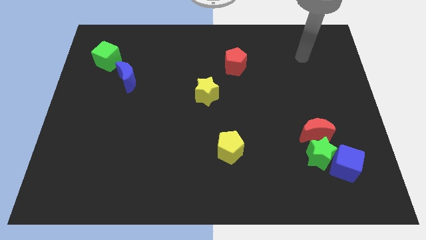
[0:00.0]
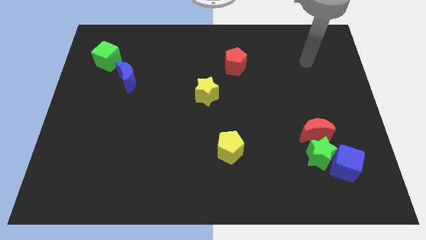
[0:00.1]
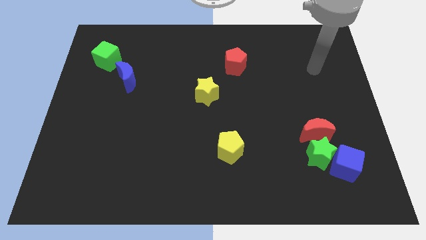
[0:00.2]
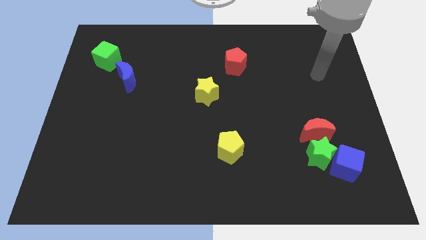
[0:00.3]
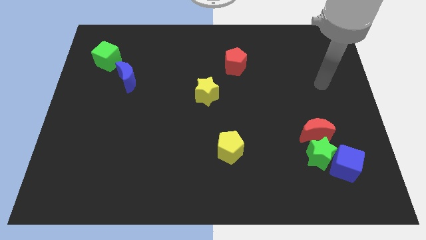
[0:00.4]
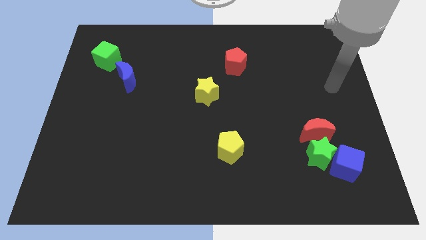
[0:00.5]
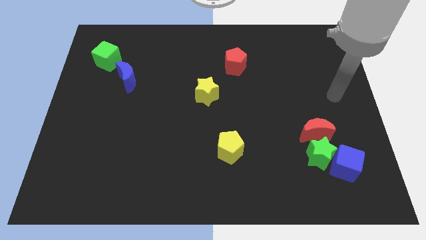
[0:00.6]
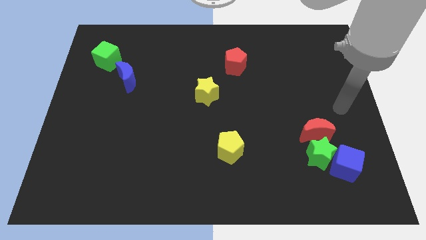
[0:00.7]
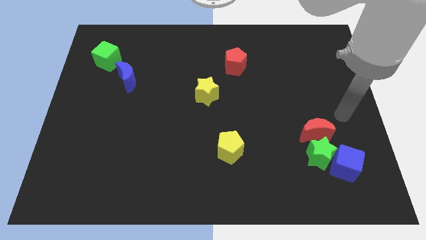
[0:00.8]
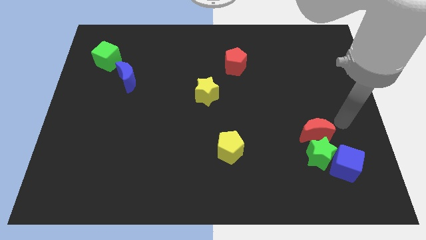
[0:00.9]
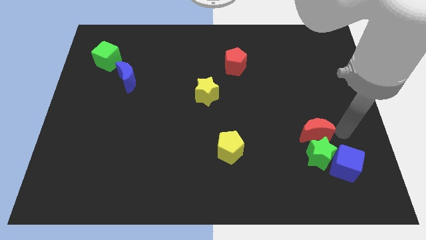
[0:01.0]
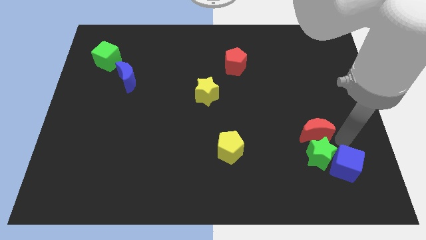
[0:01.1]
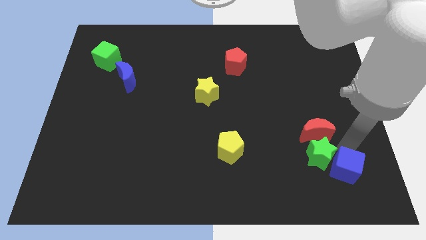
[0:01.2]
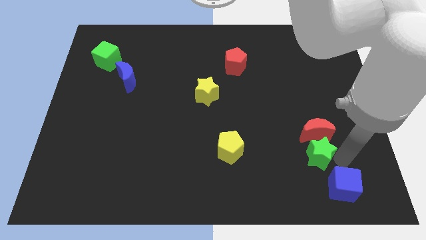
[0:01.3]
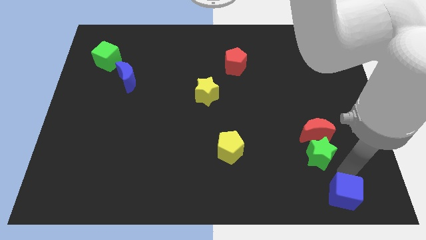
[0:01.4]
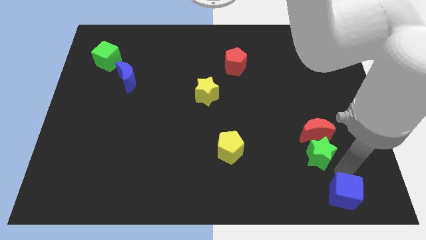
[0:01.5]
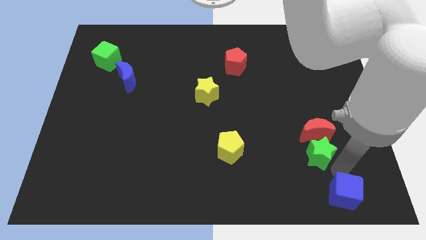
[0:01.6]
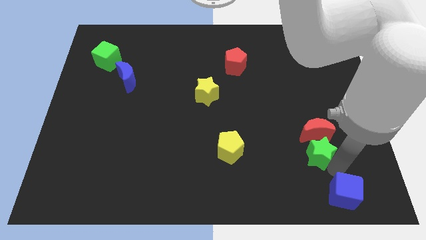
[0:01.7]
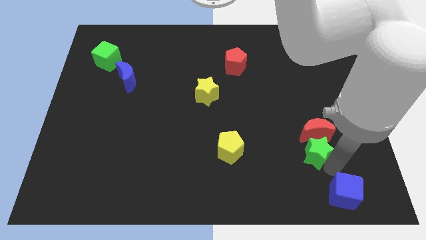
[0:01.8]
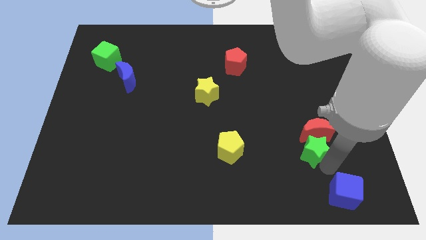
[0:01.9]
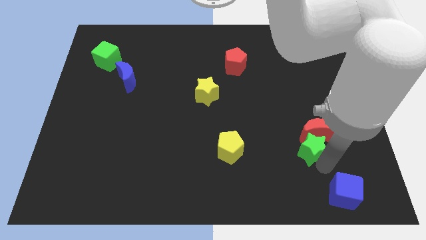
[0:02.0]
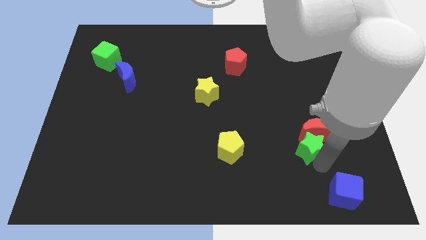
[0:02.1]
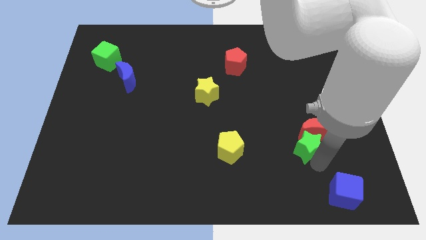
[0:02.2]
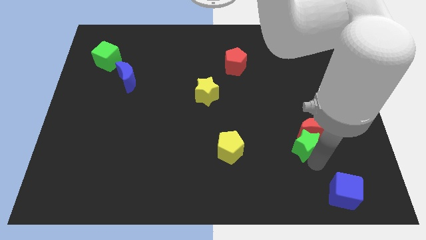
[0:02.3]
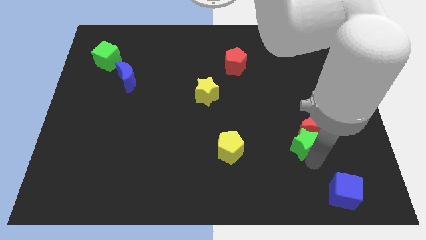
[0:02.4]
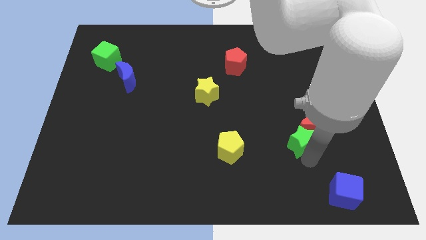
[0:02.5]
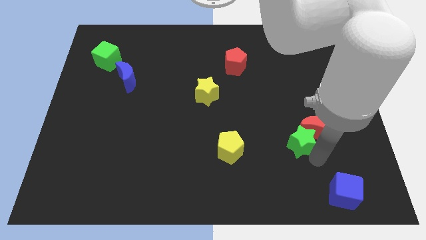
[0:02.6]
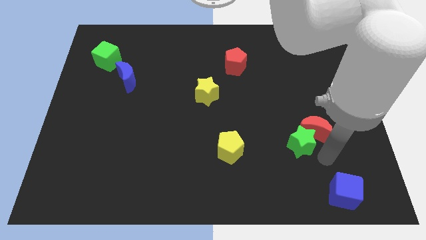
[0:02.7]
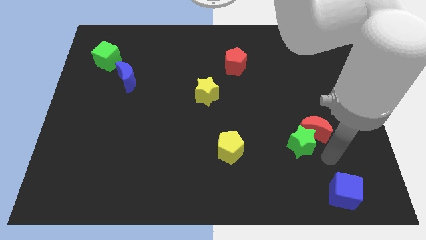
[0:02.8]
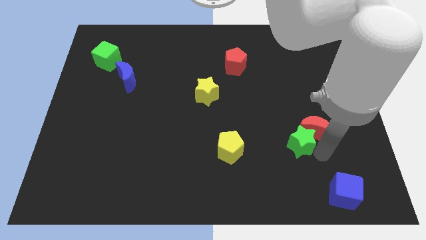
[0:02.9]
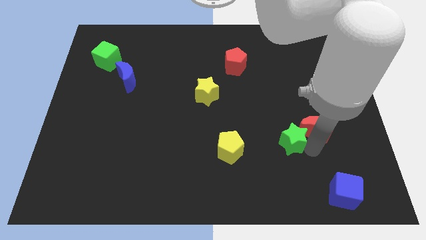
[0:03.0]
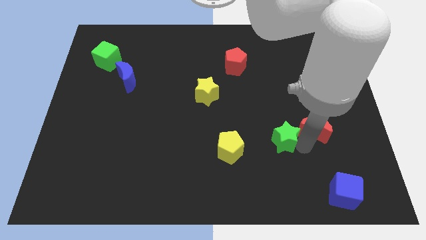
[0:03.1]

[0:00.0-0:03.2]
push the green star a bit up and left diagonally

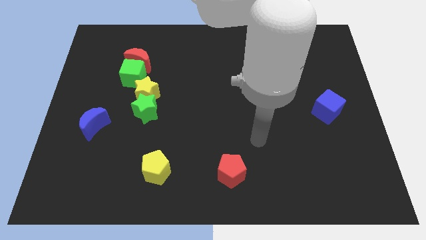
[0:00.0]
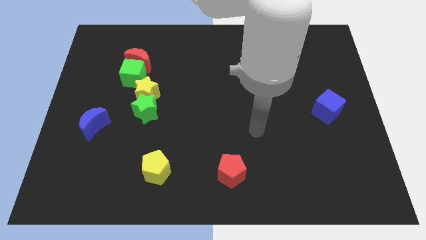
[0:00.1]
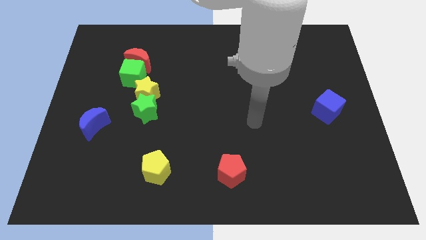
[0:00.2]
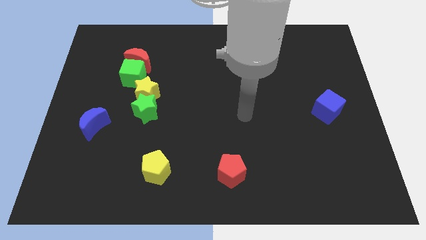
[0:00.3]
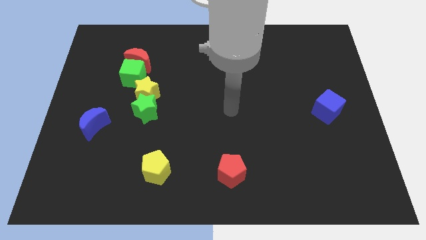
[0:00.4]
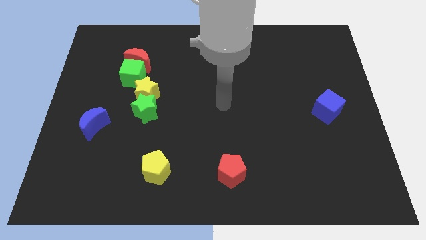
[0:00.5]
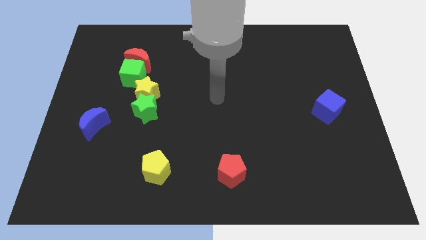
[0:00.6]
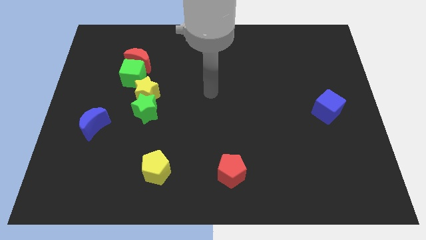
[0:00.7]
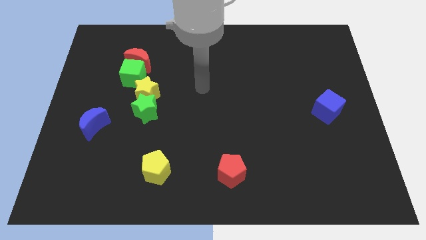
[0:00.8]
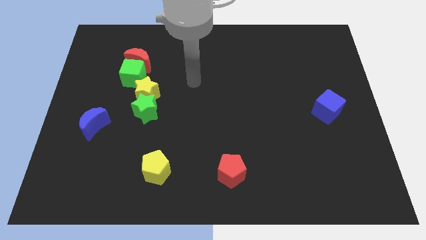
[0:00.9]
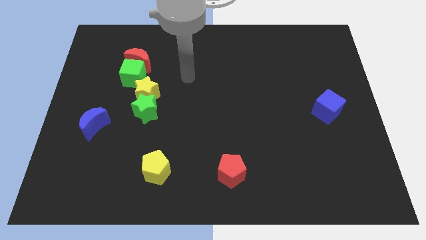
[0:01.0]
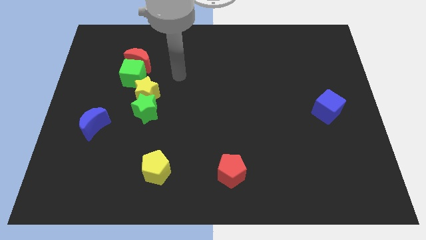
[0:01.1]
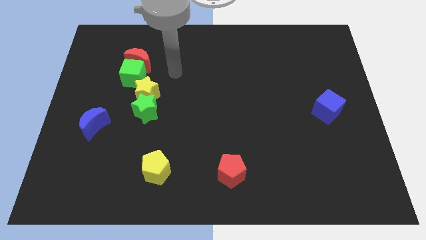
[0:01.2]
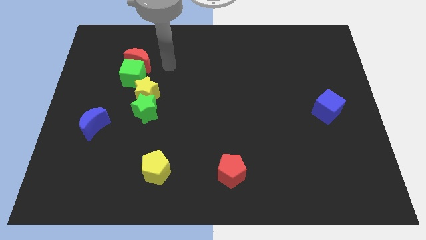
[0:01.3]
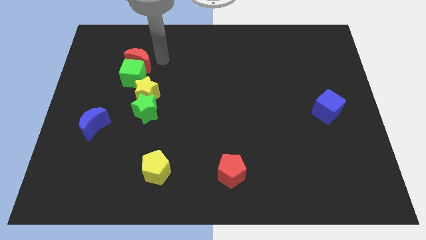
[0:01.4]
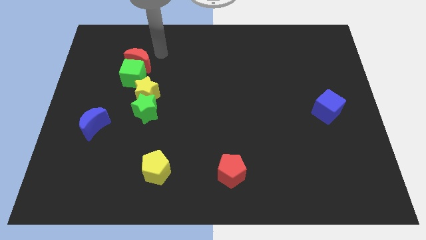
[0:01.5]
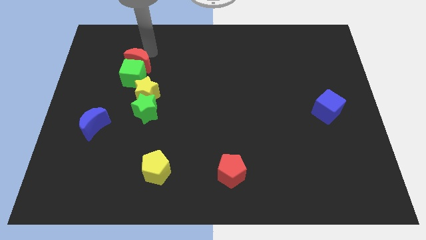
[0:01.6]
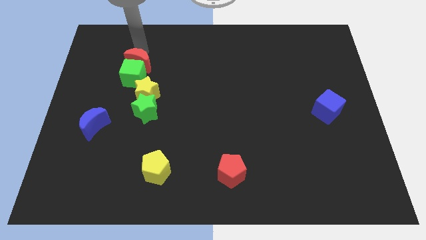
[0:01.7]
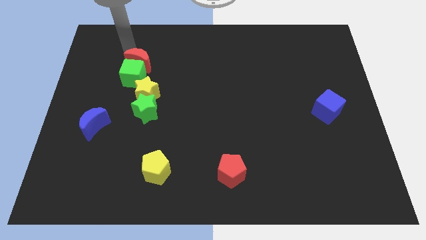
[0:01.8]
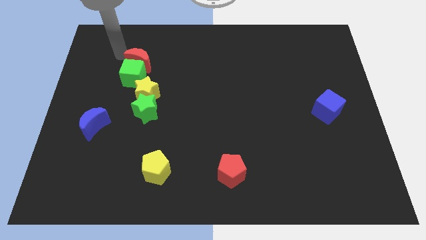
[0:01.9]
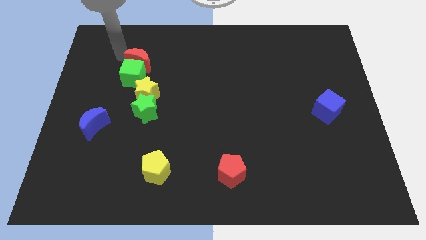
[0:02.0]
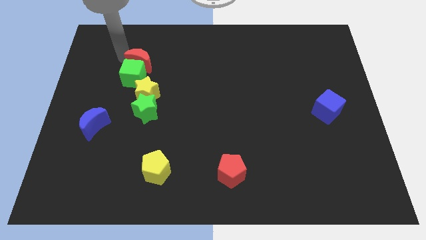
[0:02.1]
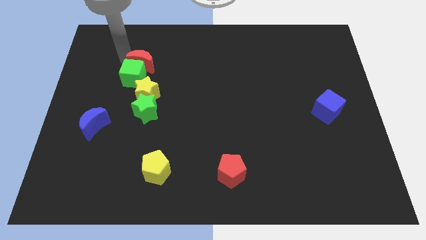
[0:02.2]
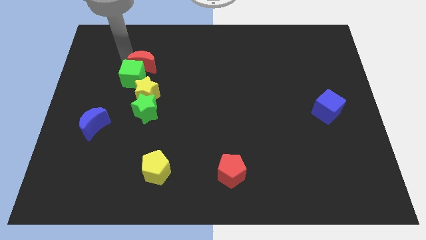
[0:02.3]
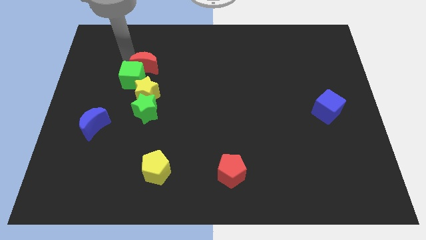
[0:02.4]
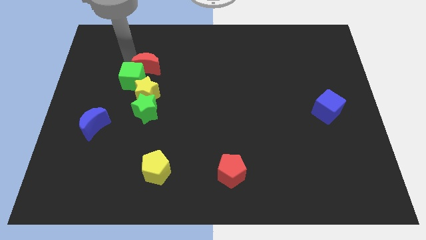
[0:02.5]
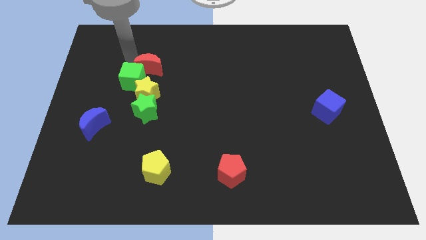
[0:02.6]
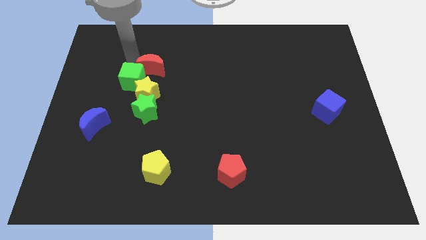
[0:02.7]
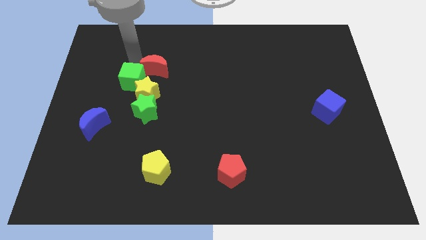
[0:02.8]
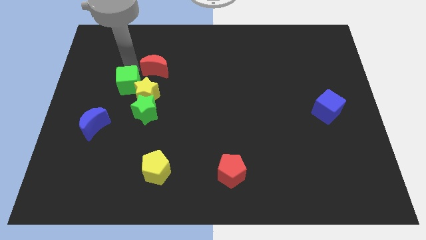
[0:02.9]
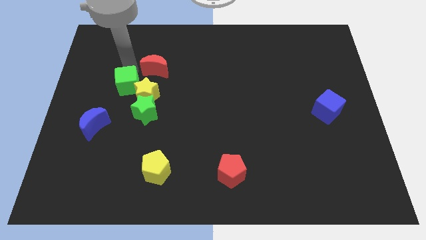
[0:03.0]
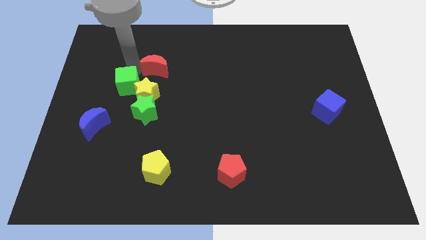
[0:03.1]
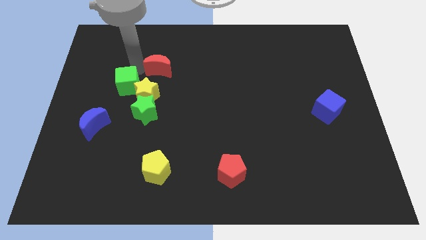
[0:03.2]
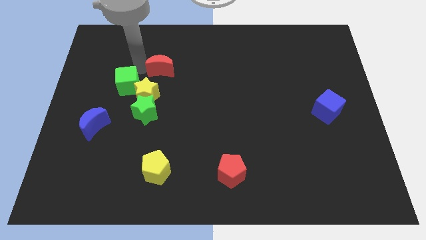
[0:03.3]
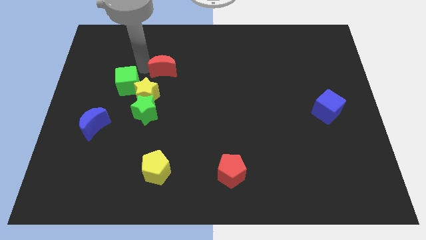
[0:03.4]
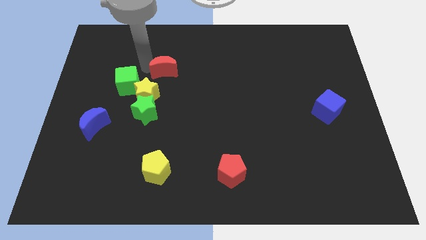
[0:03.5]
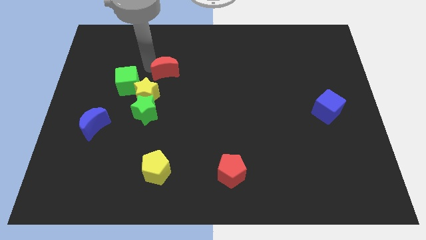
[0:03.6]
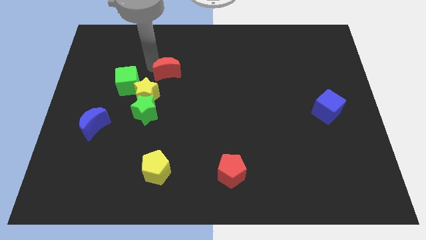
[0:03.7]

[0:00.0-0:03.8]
move the red moon to the right somewhat

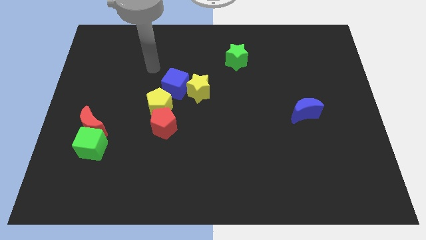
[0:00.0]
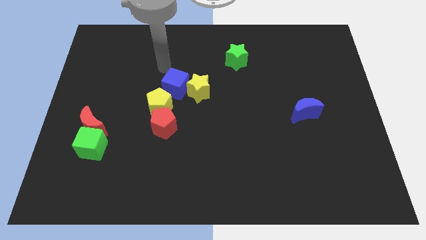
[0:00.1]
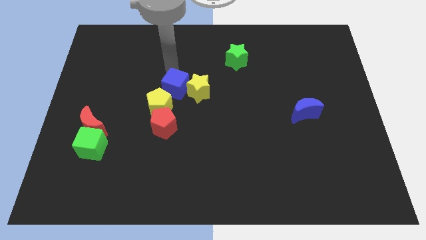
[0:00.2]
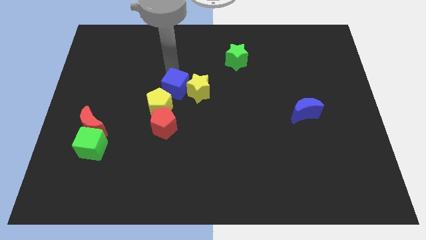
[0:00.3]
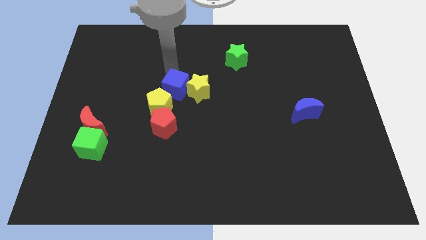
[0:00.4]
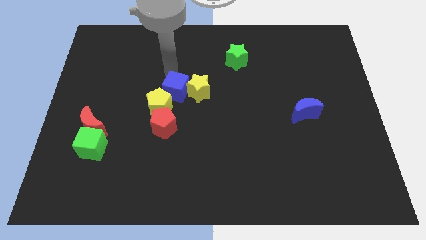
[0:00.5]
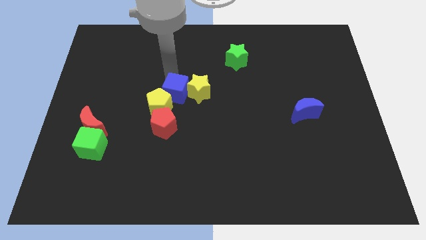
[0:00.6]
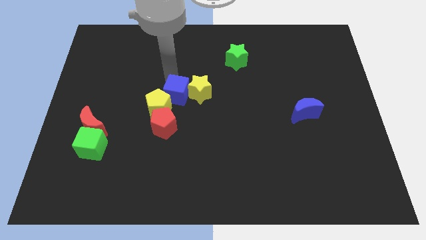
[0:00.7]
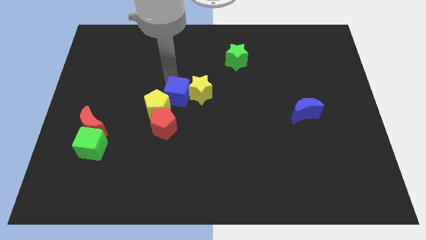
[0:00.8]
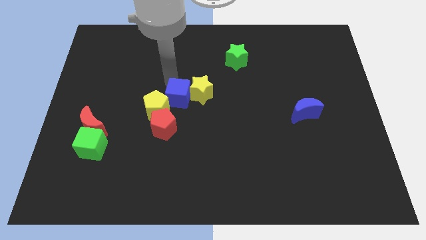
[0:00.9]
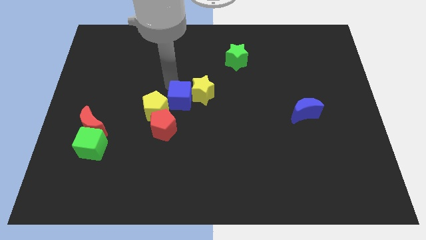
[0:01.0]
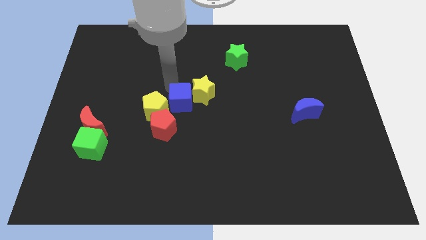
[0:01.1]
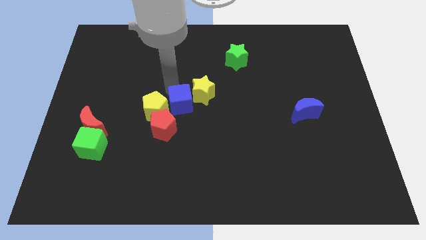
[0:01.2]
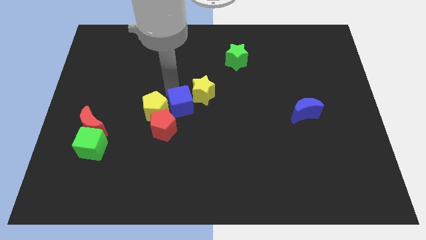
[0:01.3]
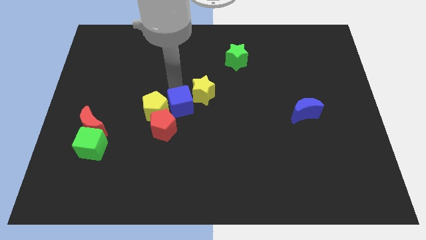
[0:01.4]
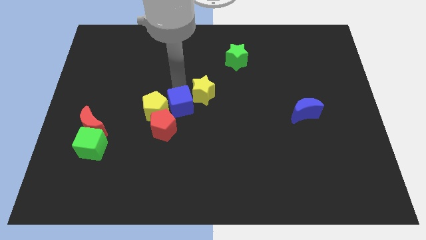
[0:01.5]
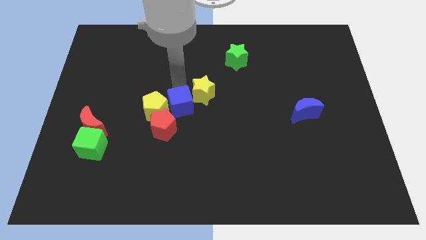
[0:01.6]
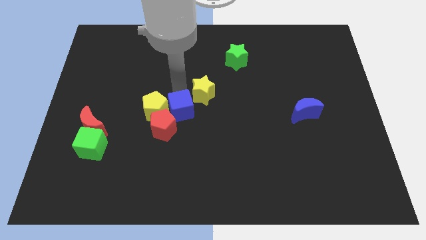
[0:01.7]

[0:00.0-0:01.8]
push the blue cube downwards slightly
